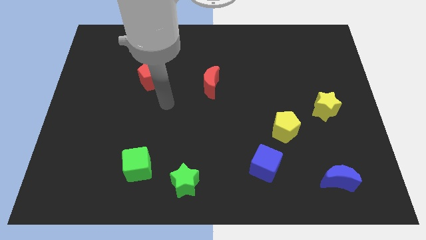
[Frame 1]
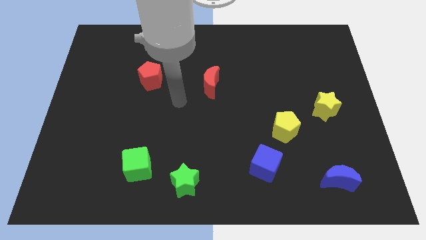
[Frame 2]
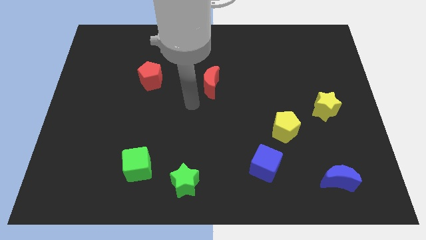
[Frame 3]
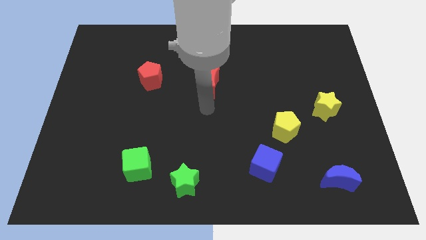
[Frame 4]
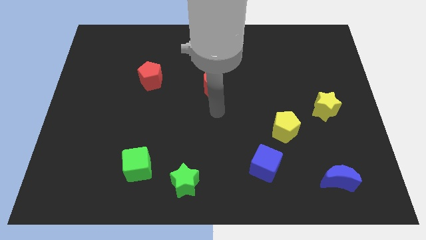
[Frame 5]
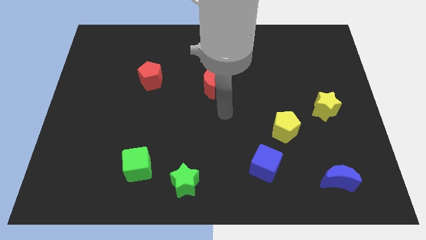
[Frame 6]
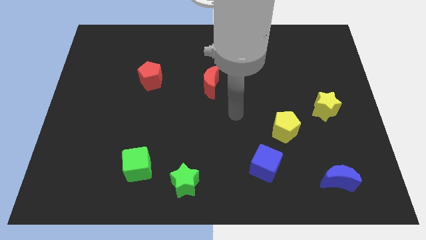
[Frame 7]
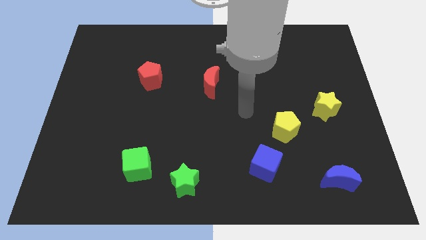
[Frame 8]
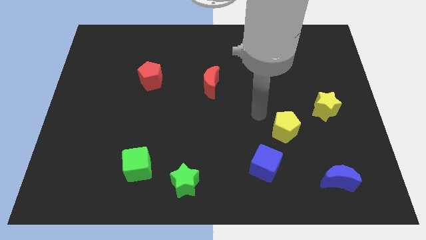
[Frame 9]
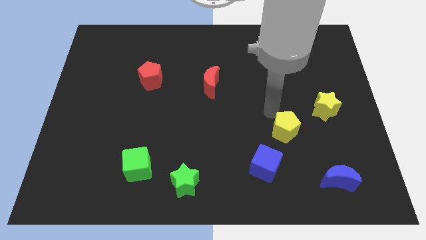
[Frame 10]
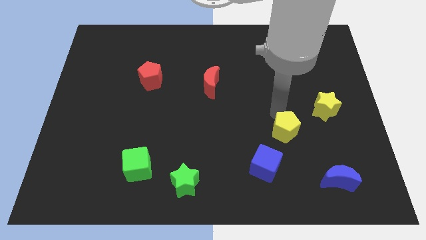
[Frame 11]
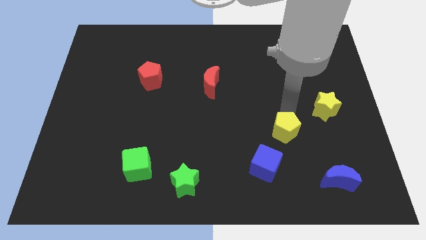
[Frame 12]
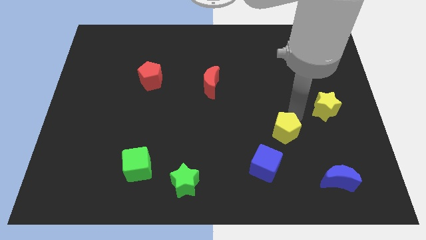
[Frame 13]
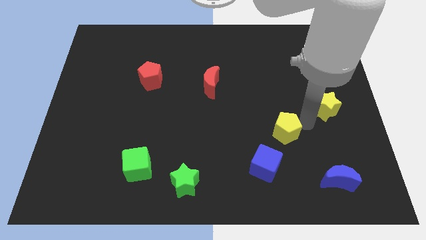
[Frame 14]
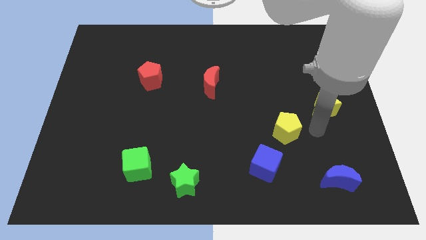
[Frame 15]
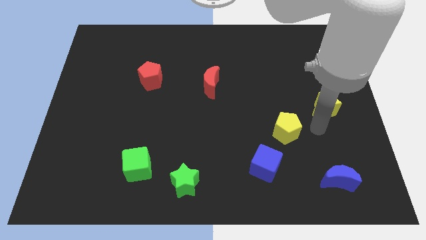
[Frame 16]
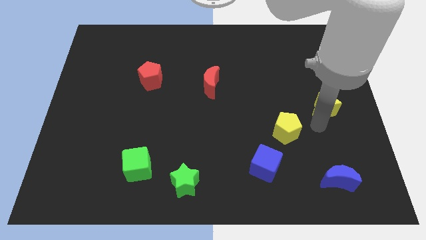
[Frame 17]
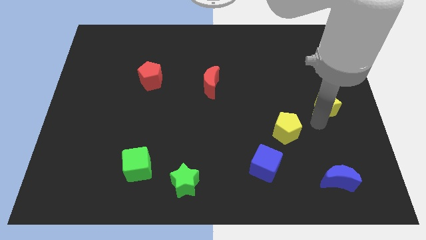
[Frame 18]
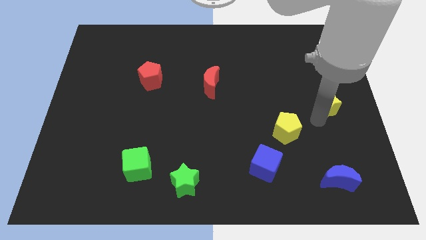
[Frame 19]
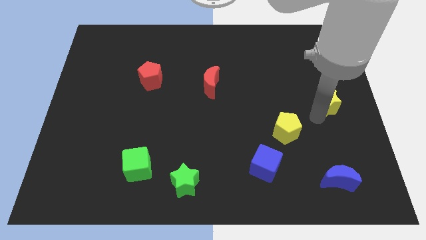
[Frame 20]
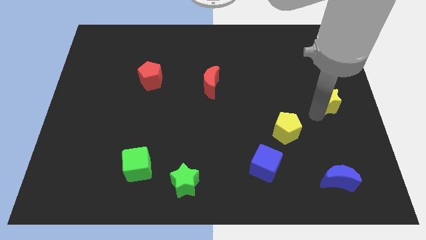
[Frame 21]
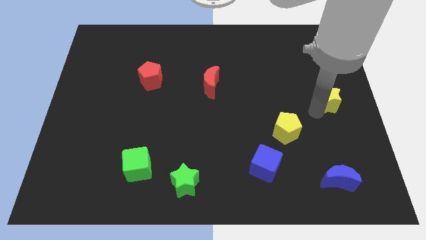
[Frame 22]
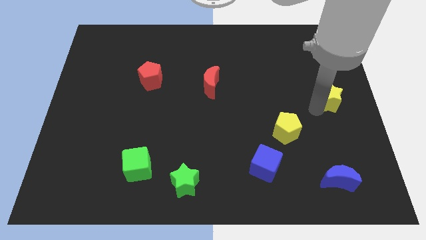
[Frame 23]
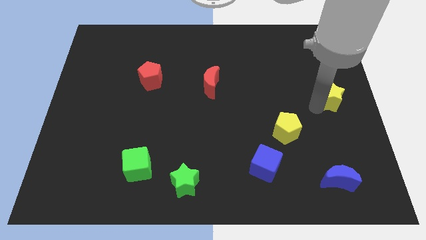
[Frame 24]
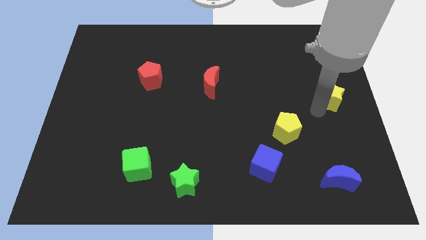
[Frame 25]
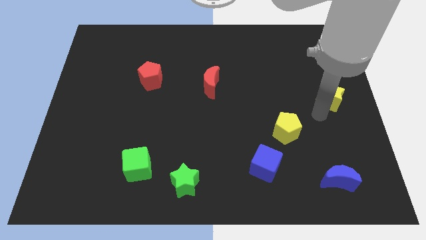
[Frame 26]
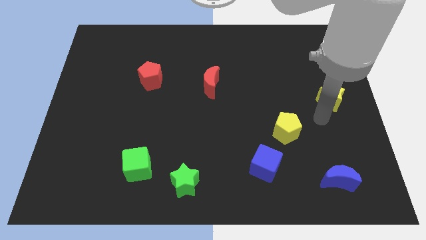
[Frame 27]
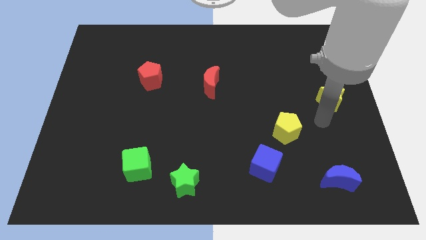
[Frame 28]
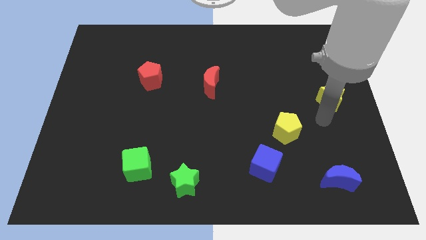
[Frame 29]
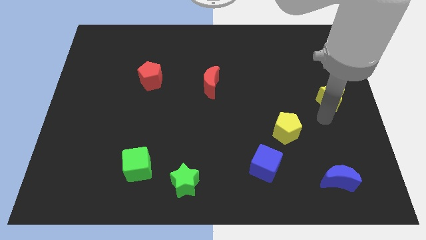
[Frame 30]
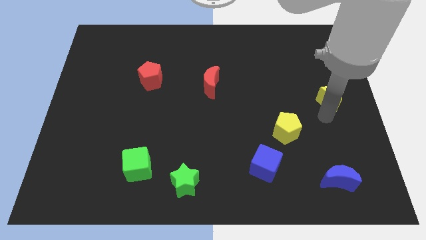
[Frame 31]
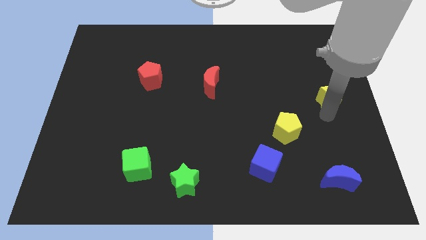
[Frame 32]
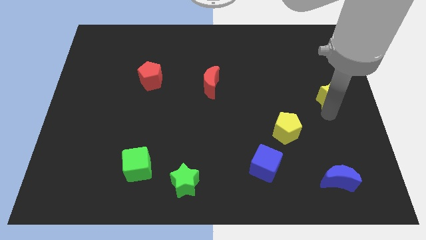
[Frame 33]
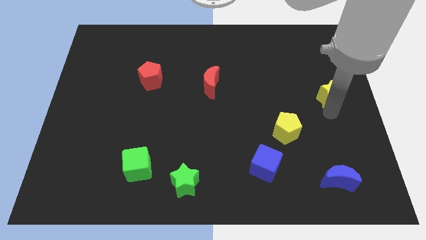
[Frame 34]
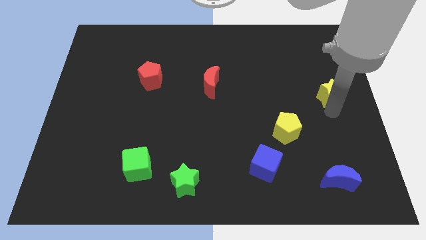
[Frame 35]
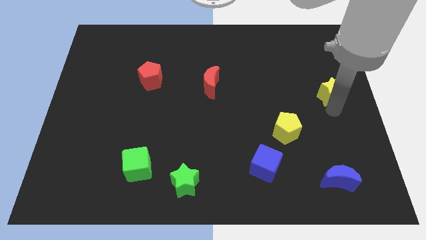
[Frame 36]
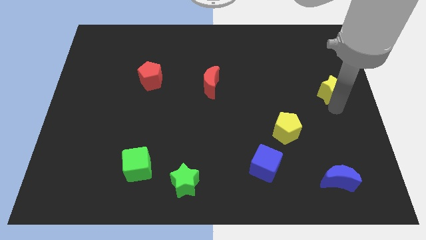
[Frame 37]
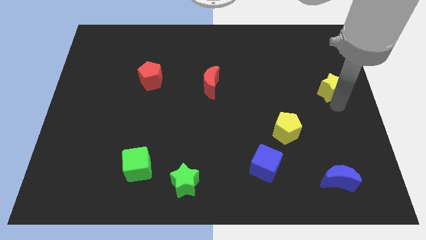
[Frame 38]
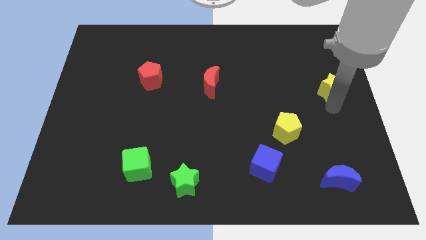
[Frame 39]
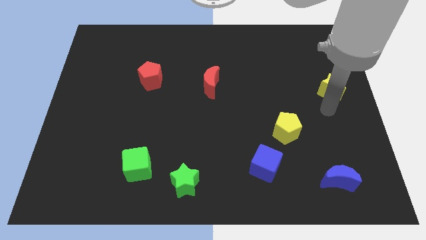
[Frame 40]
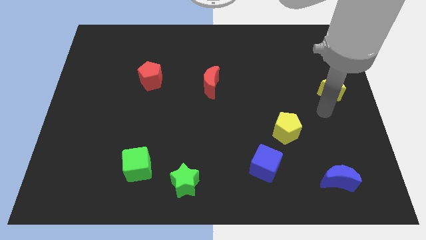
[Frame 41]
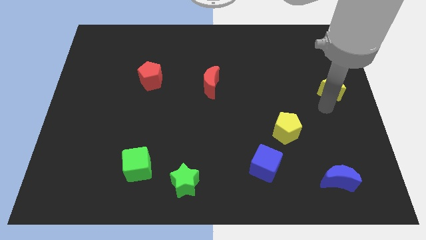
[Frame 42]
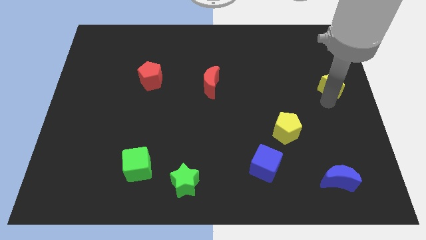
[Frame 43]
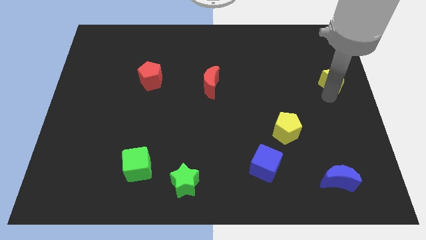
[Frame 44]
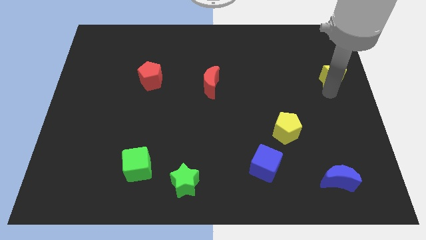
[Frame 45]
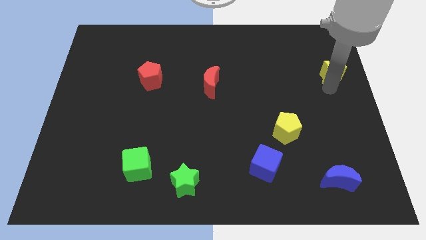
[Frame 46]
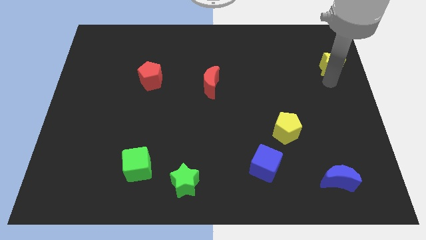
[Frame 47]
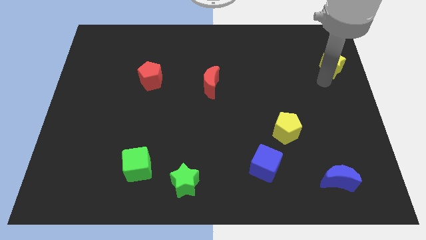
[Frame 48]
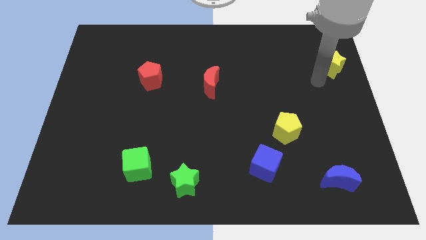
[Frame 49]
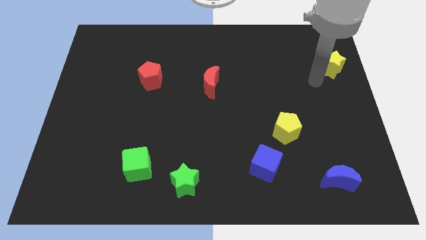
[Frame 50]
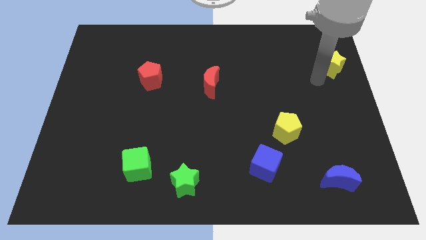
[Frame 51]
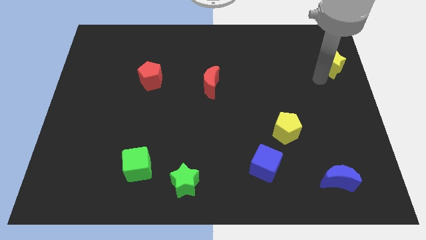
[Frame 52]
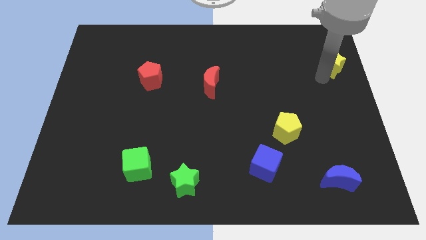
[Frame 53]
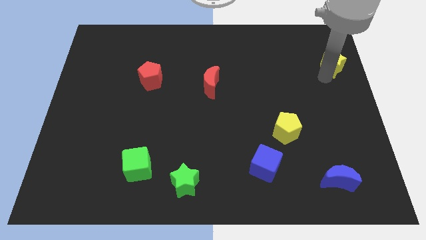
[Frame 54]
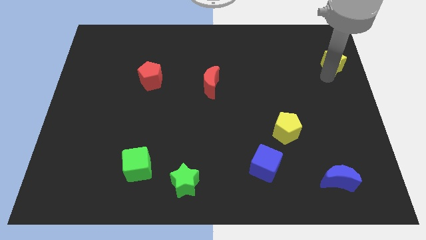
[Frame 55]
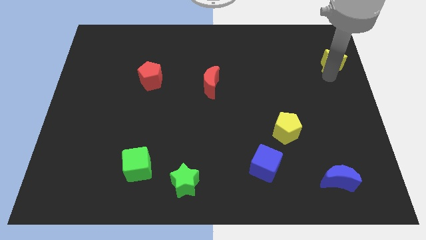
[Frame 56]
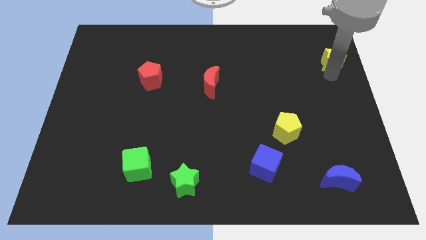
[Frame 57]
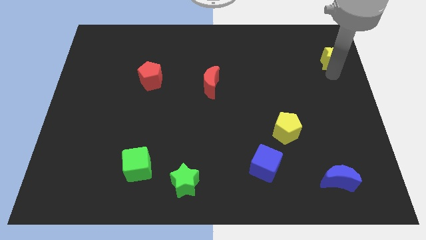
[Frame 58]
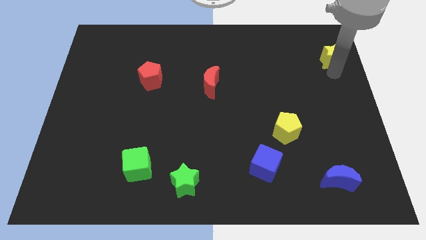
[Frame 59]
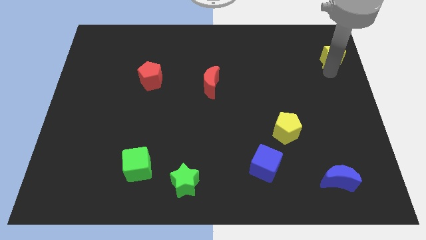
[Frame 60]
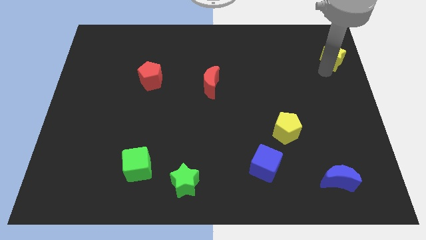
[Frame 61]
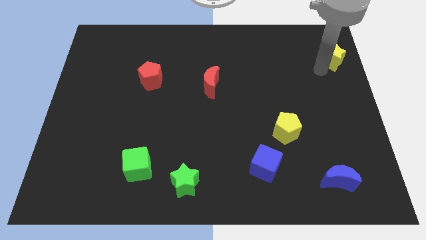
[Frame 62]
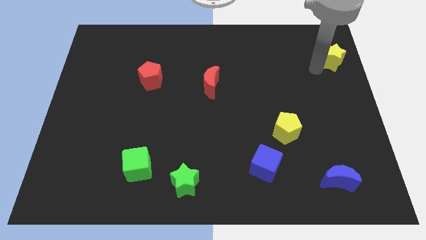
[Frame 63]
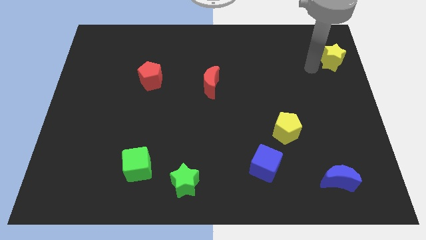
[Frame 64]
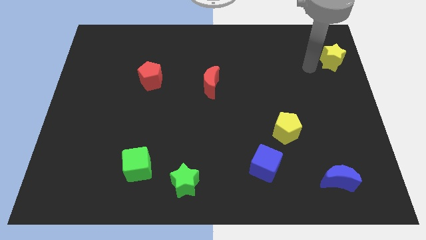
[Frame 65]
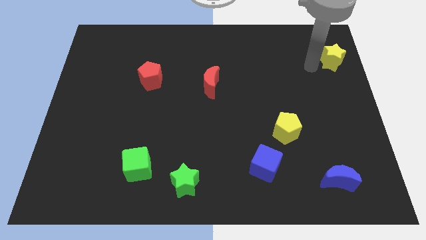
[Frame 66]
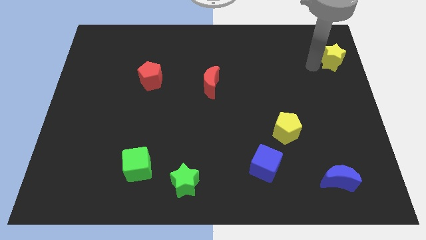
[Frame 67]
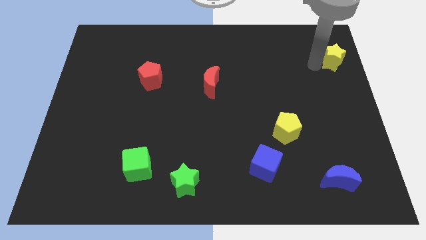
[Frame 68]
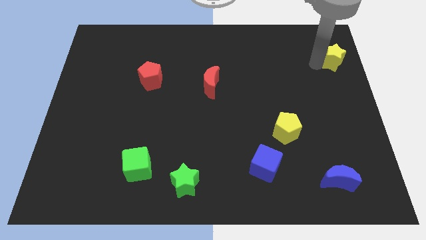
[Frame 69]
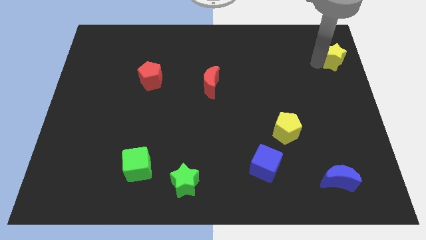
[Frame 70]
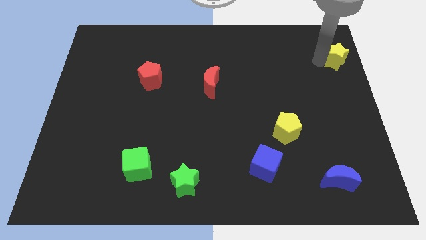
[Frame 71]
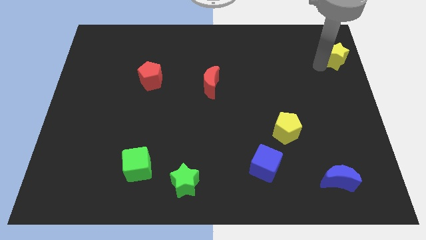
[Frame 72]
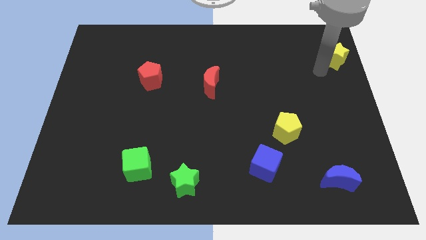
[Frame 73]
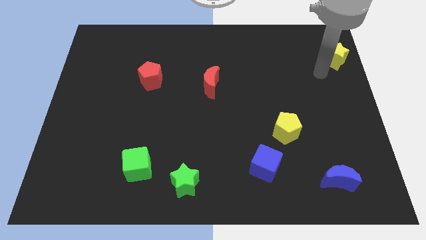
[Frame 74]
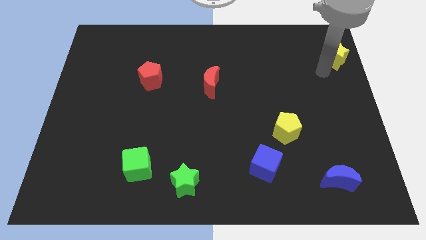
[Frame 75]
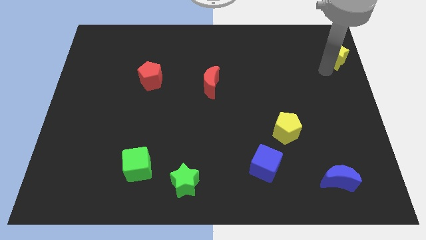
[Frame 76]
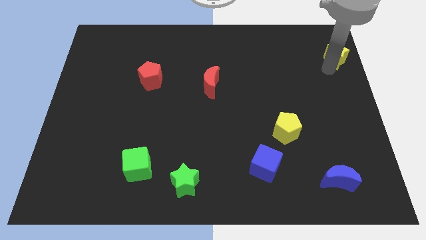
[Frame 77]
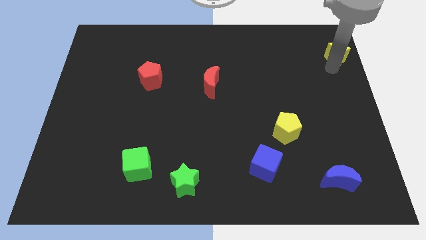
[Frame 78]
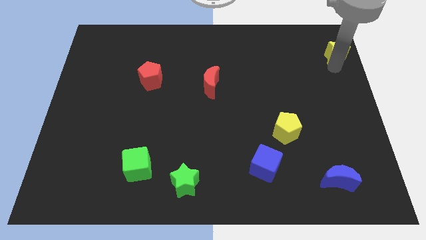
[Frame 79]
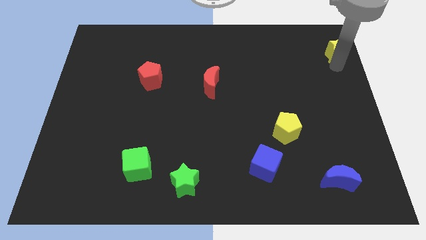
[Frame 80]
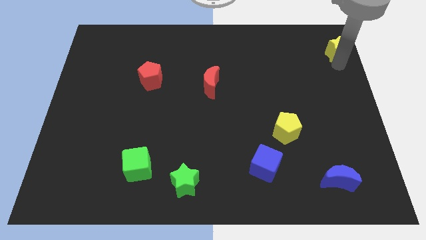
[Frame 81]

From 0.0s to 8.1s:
slide the yellow star to the top right of the board
